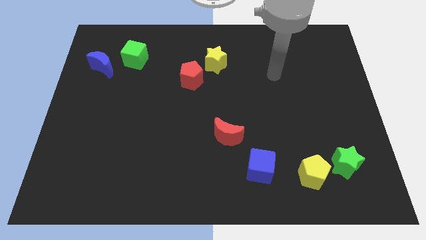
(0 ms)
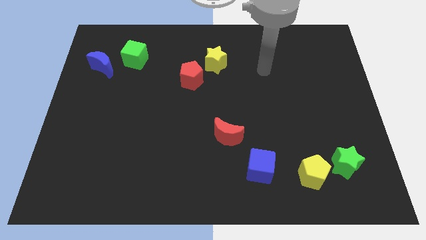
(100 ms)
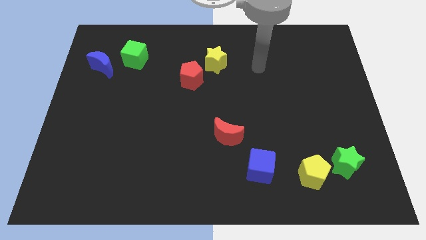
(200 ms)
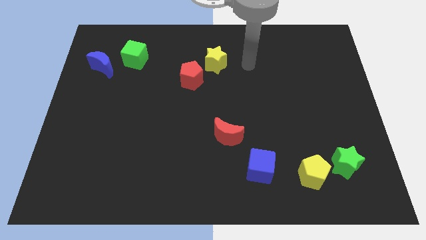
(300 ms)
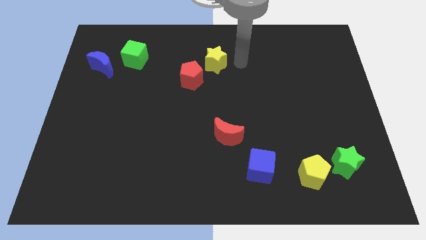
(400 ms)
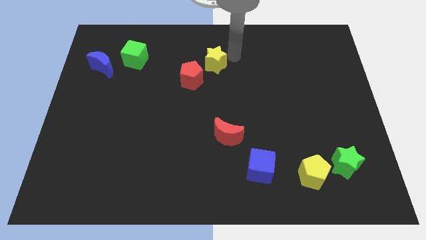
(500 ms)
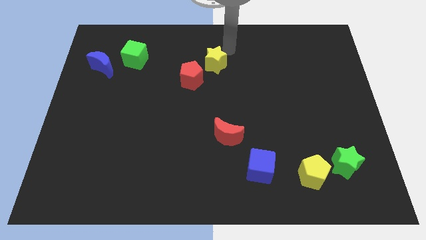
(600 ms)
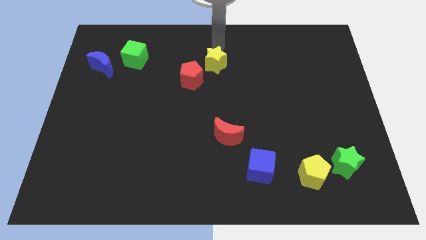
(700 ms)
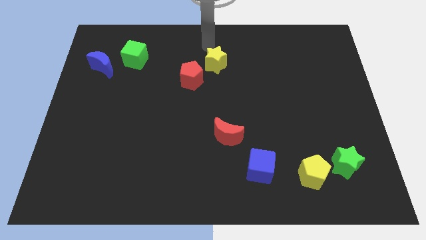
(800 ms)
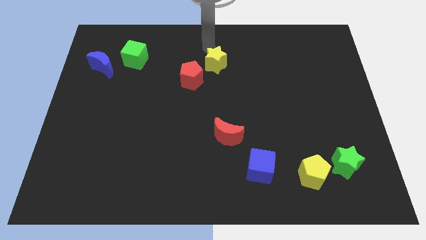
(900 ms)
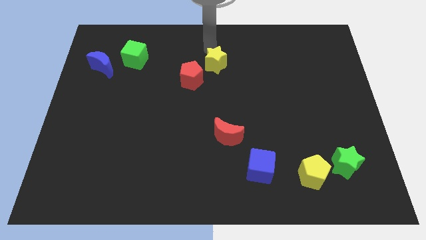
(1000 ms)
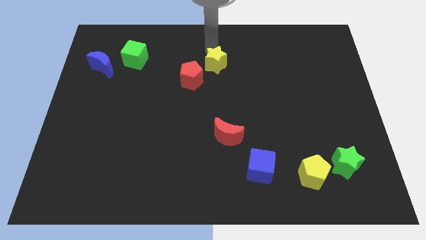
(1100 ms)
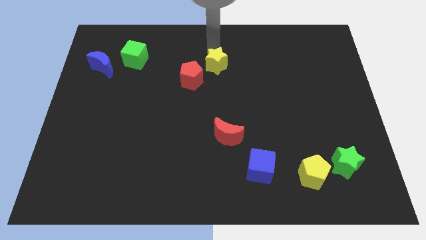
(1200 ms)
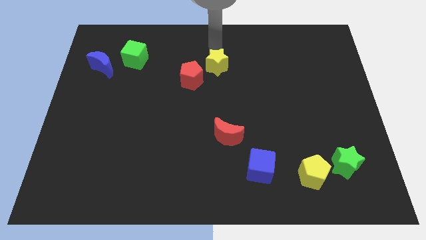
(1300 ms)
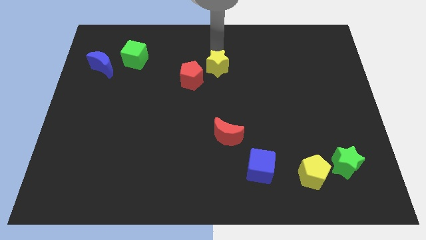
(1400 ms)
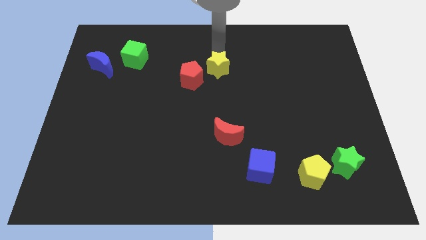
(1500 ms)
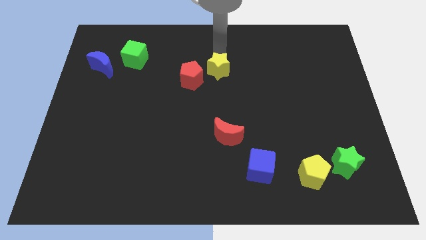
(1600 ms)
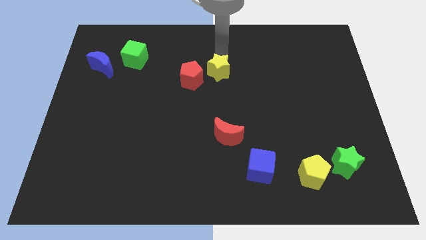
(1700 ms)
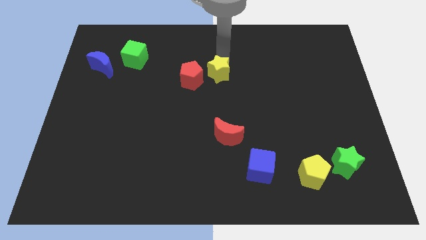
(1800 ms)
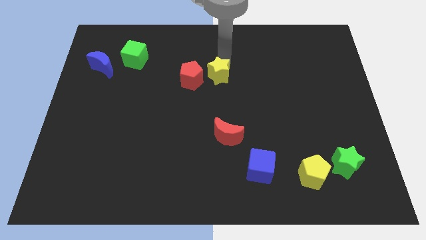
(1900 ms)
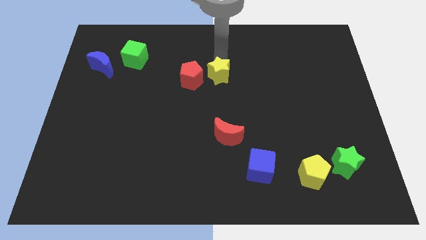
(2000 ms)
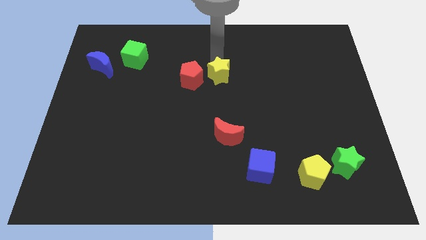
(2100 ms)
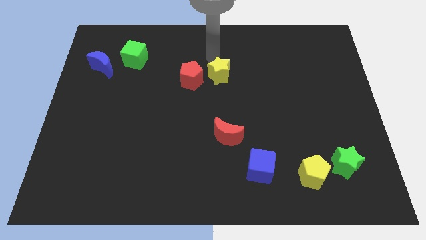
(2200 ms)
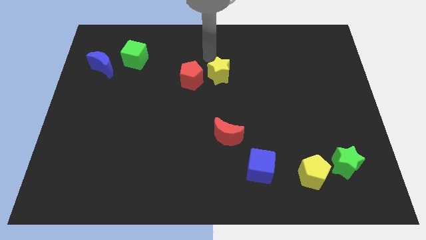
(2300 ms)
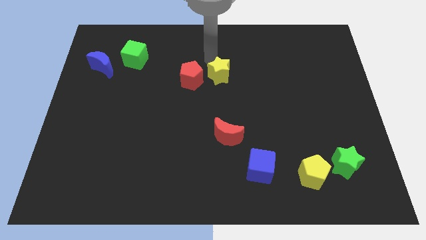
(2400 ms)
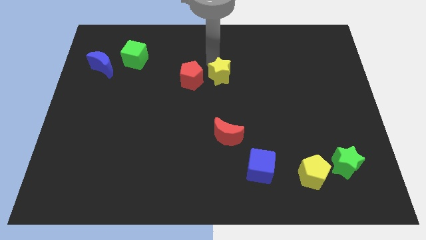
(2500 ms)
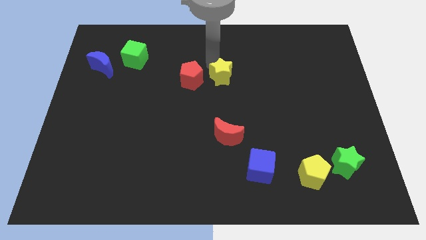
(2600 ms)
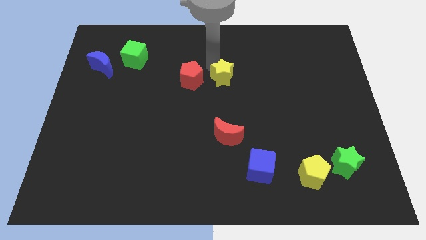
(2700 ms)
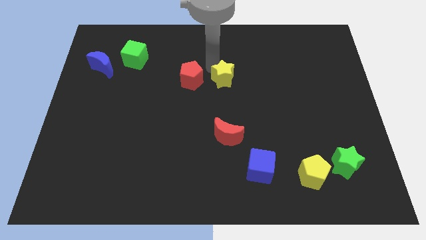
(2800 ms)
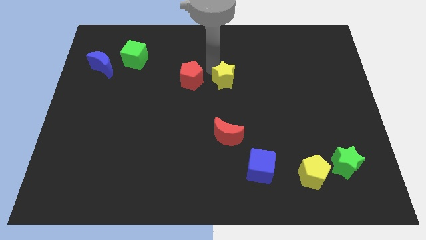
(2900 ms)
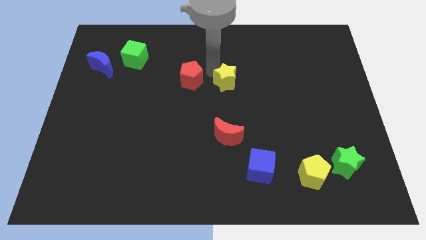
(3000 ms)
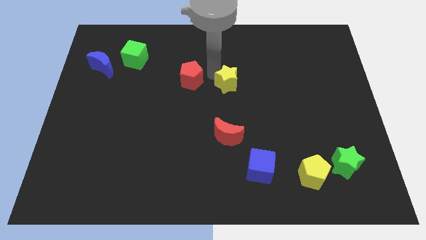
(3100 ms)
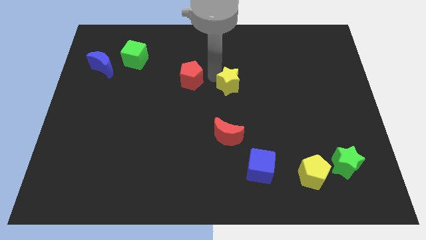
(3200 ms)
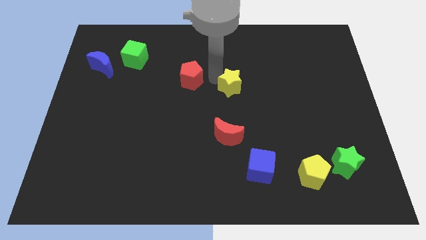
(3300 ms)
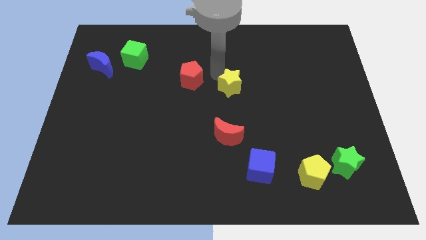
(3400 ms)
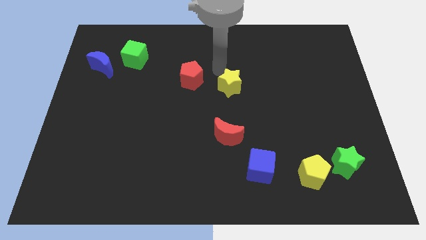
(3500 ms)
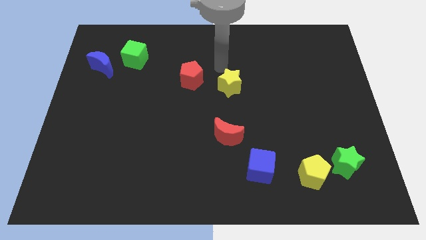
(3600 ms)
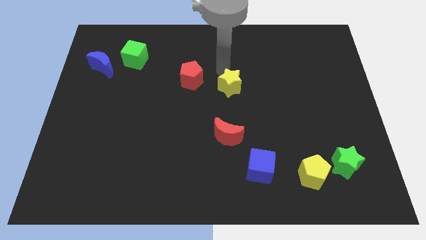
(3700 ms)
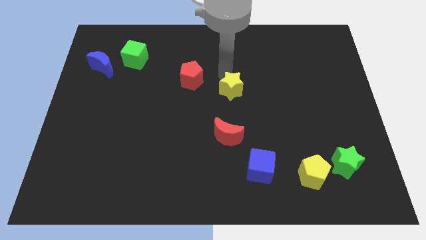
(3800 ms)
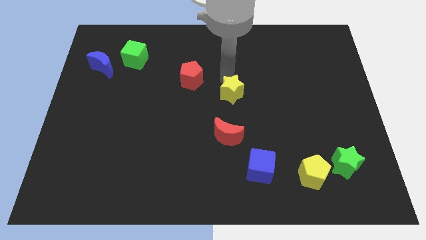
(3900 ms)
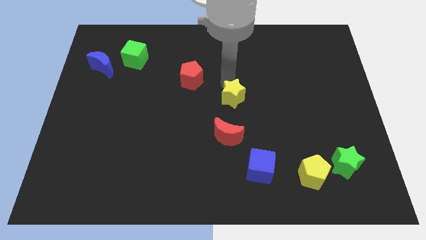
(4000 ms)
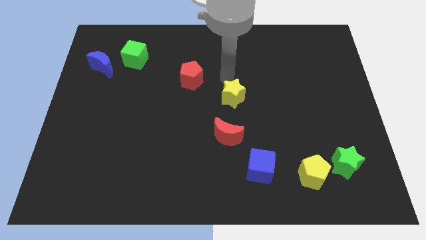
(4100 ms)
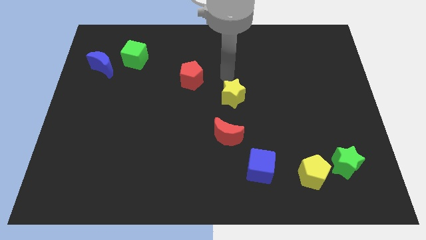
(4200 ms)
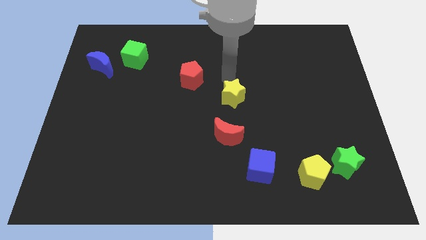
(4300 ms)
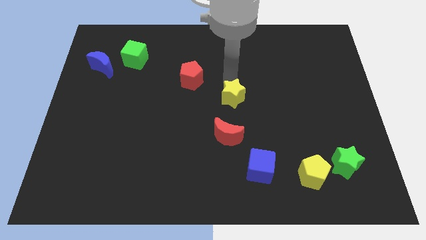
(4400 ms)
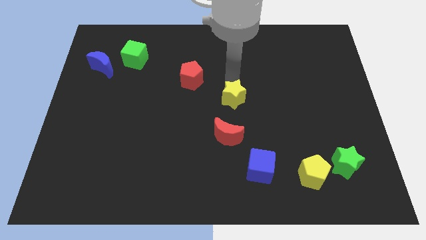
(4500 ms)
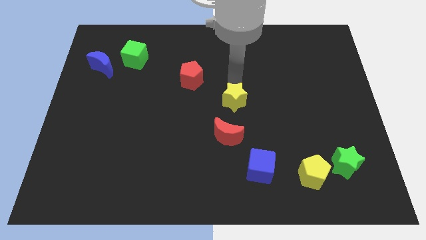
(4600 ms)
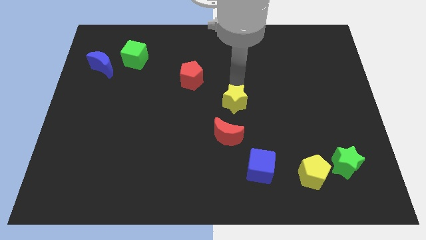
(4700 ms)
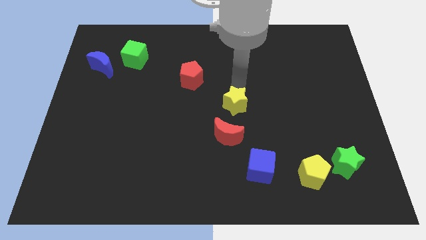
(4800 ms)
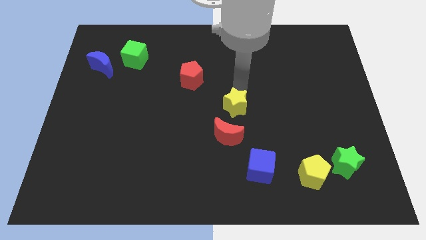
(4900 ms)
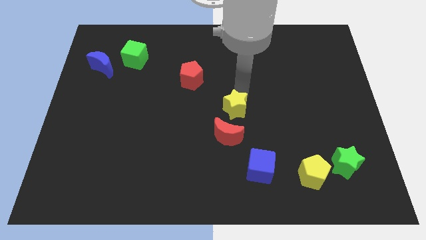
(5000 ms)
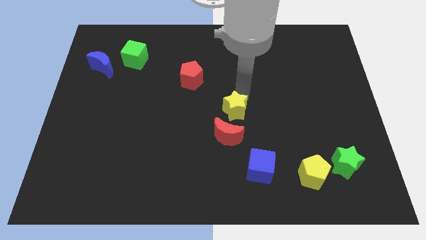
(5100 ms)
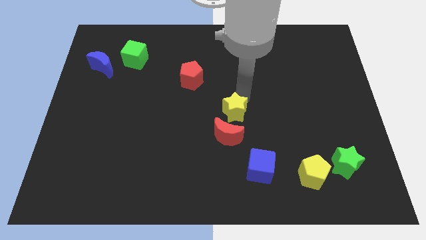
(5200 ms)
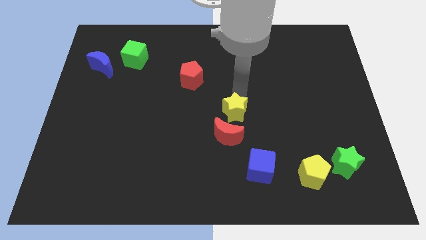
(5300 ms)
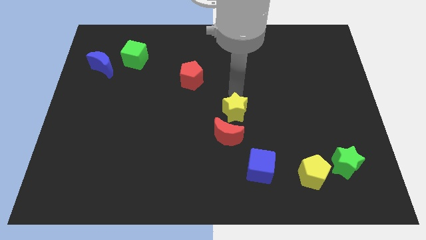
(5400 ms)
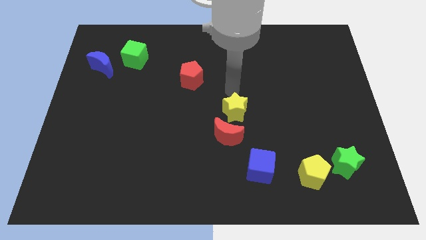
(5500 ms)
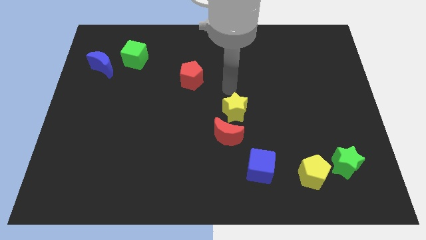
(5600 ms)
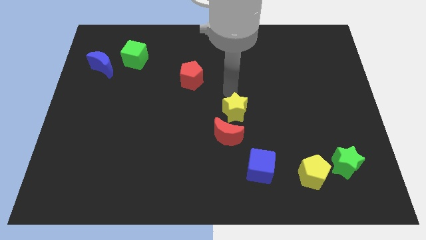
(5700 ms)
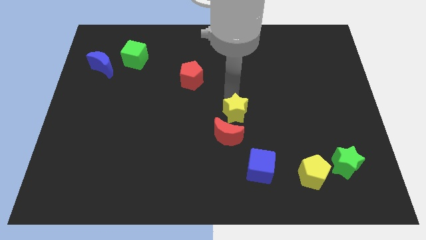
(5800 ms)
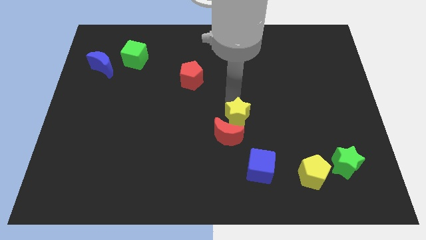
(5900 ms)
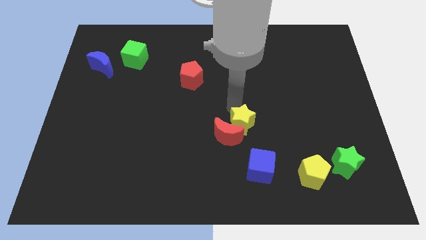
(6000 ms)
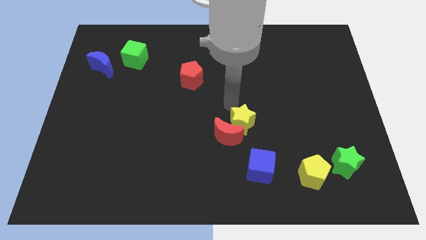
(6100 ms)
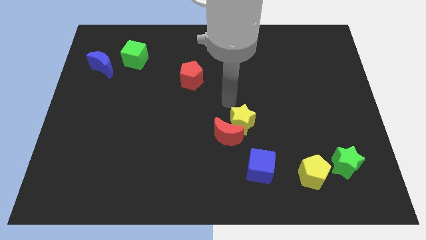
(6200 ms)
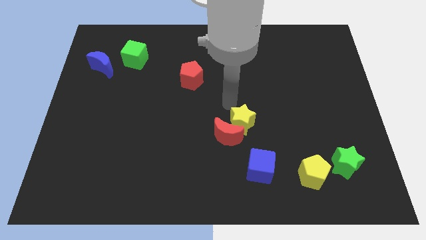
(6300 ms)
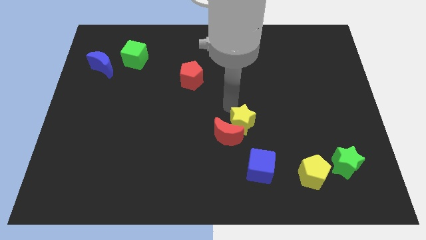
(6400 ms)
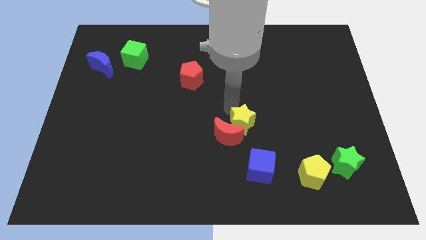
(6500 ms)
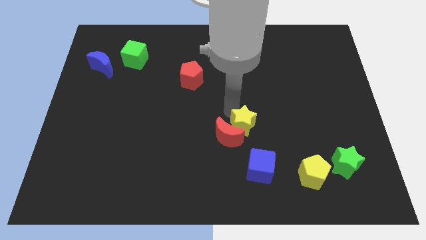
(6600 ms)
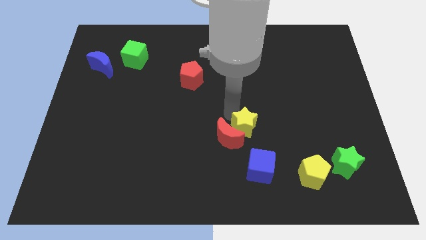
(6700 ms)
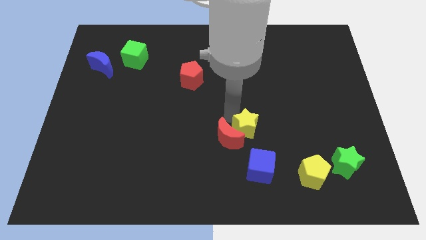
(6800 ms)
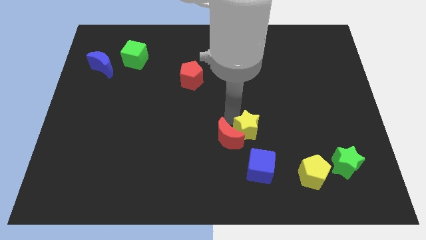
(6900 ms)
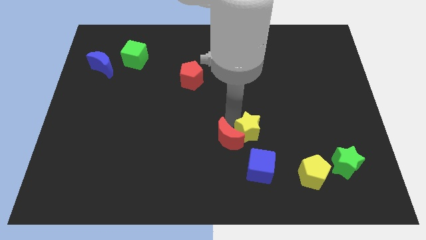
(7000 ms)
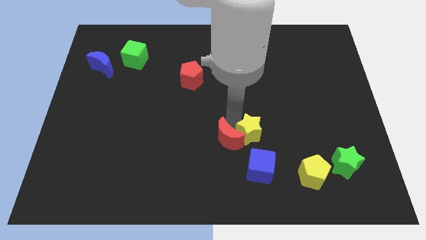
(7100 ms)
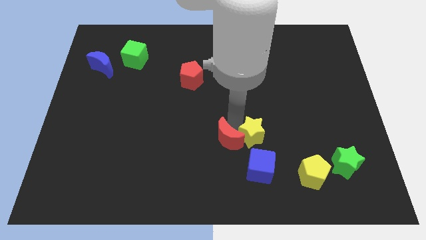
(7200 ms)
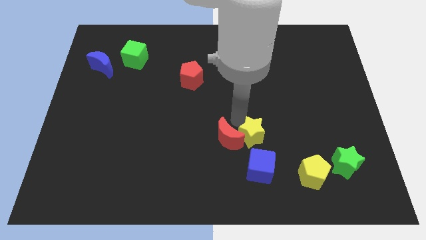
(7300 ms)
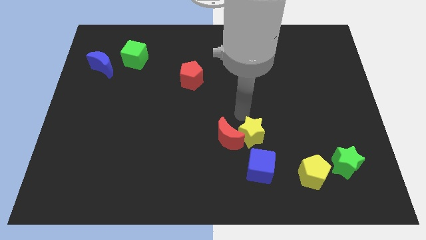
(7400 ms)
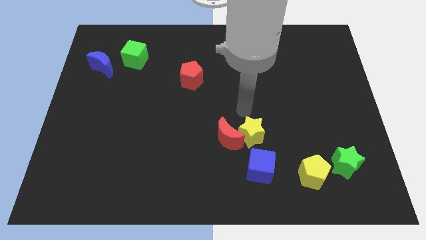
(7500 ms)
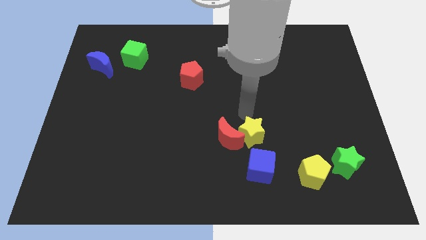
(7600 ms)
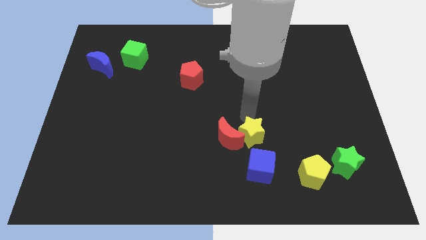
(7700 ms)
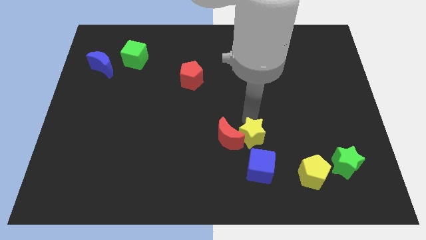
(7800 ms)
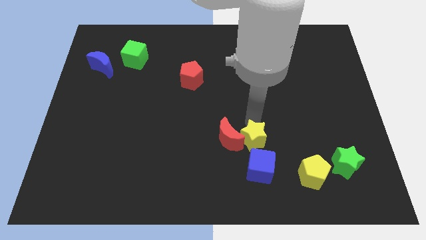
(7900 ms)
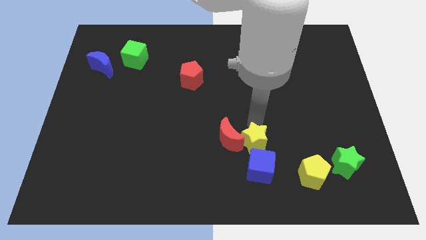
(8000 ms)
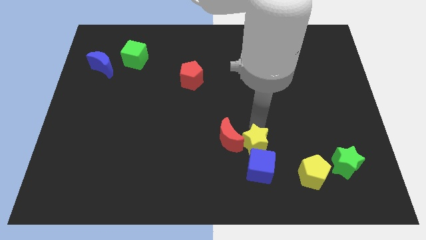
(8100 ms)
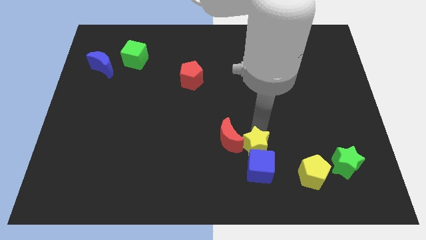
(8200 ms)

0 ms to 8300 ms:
slide the yellow star close to the blue cube
